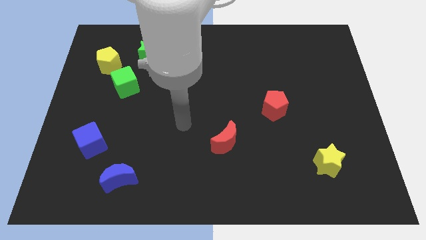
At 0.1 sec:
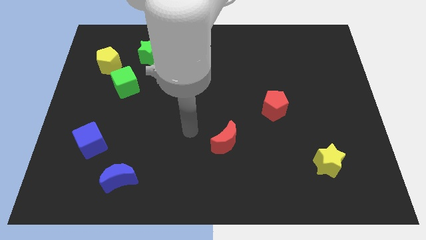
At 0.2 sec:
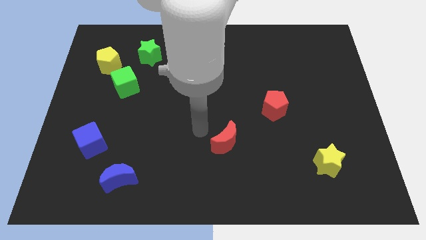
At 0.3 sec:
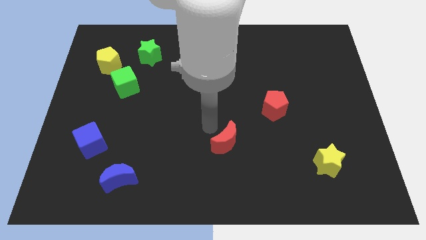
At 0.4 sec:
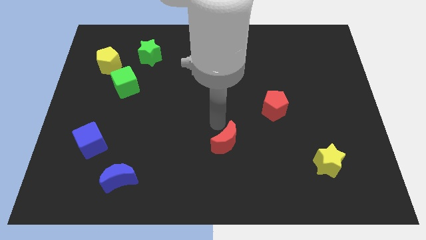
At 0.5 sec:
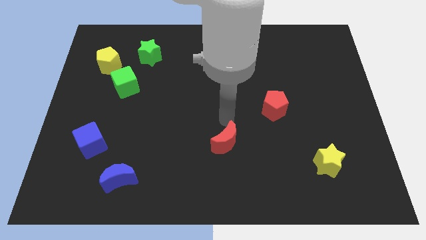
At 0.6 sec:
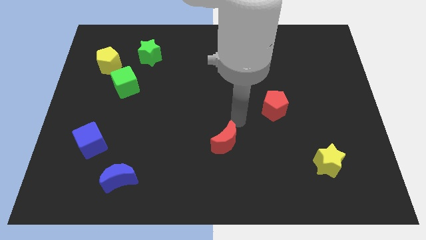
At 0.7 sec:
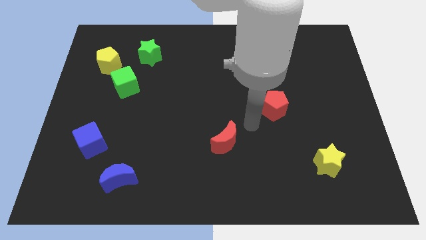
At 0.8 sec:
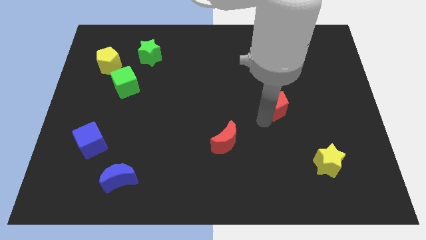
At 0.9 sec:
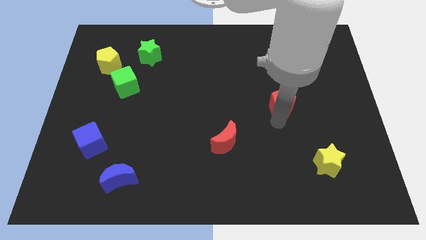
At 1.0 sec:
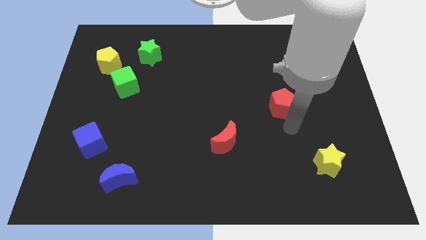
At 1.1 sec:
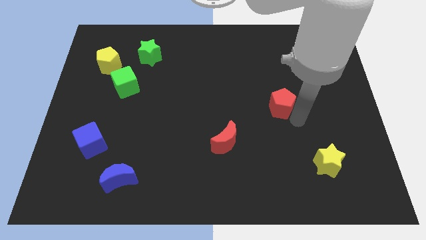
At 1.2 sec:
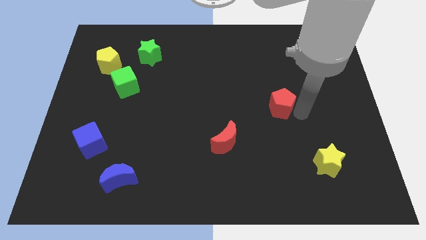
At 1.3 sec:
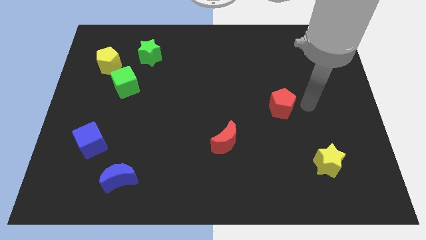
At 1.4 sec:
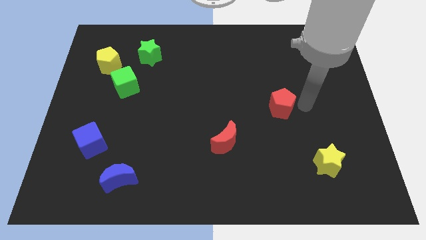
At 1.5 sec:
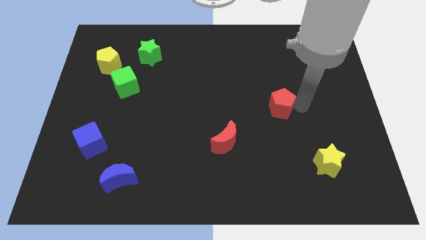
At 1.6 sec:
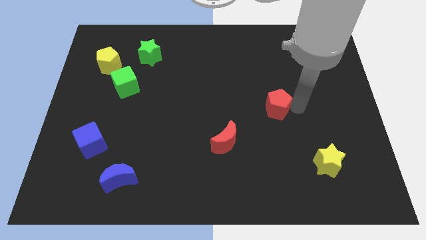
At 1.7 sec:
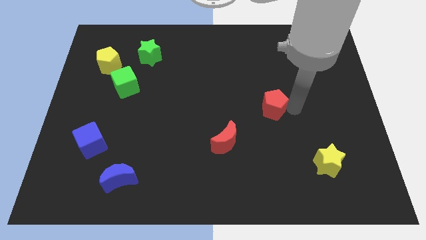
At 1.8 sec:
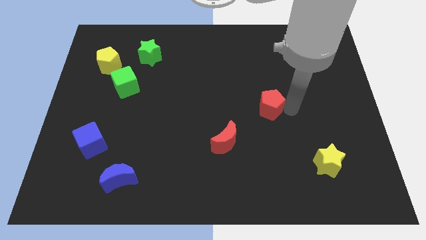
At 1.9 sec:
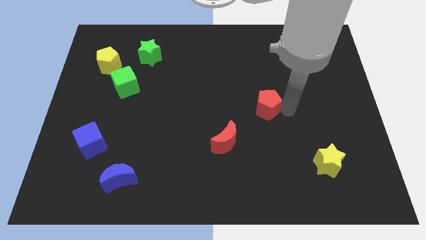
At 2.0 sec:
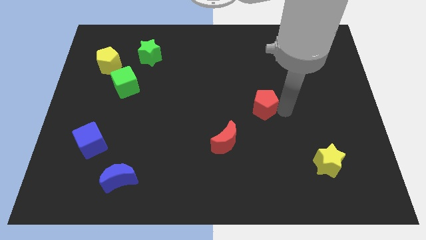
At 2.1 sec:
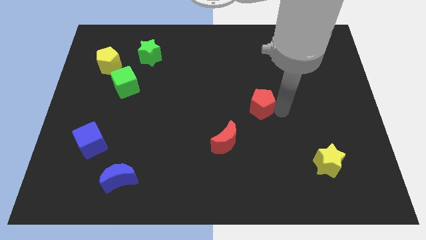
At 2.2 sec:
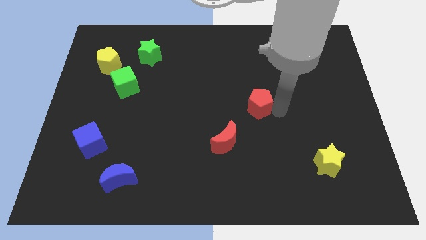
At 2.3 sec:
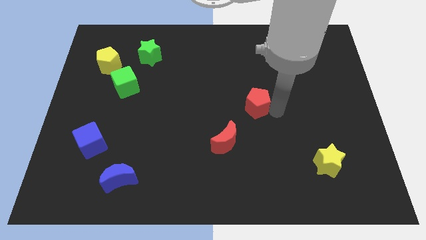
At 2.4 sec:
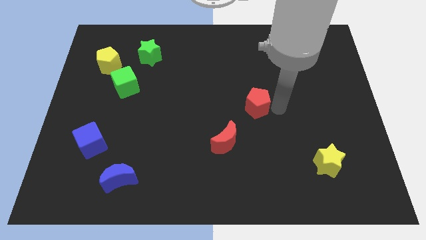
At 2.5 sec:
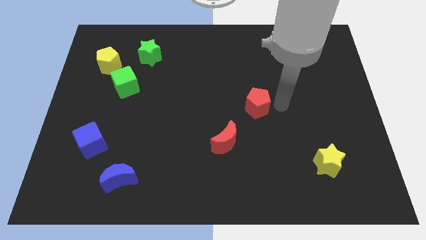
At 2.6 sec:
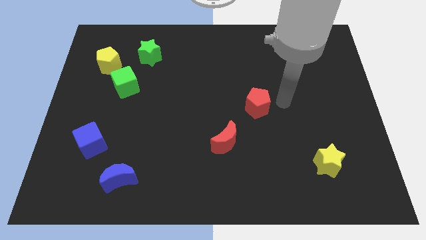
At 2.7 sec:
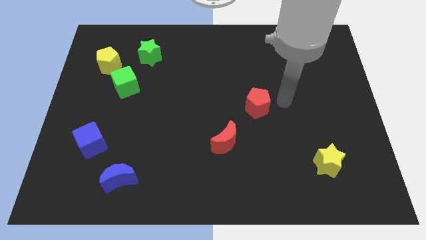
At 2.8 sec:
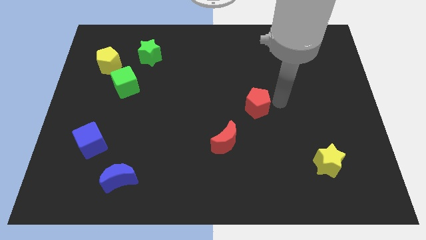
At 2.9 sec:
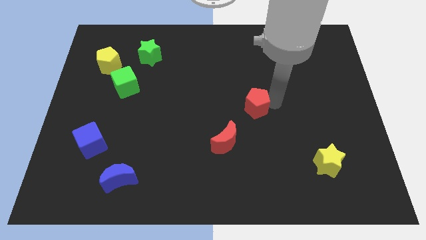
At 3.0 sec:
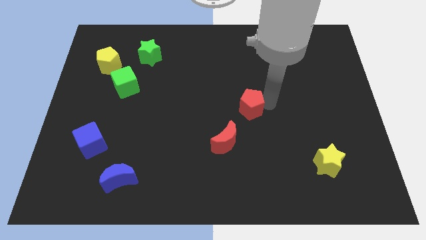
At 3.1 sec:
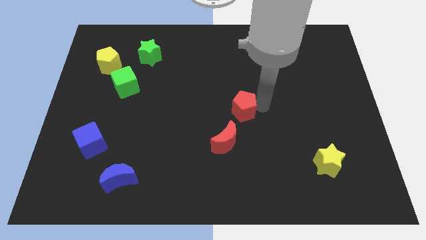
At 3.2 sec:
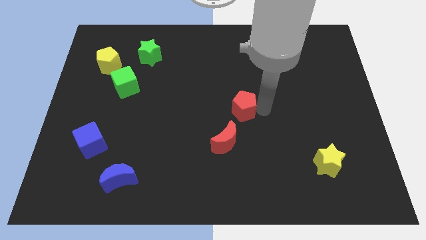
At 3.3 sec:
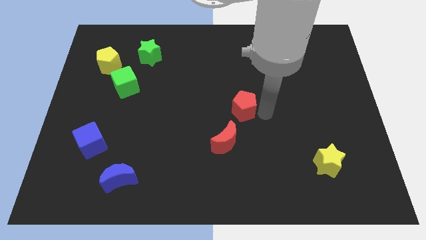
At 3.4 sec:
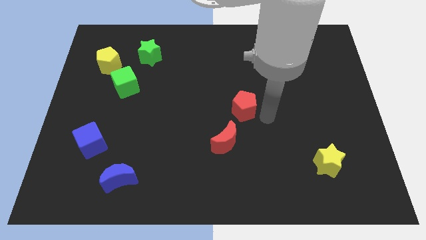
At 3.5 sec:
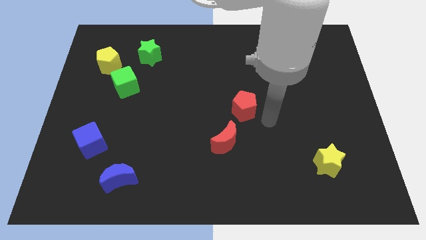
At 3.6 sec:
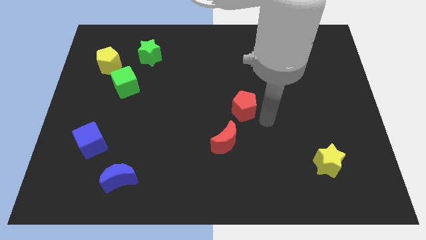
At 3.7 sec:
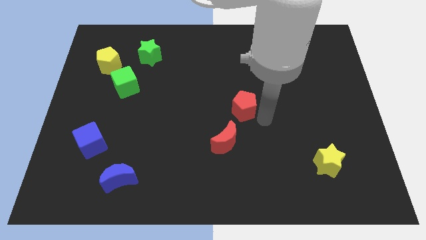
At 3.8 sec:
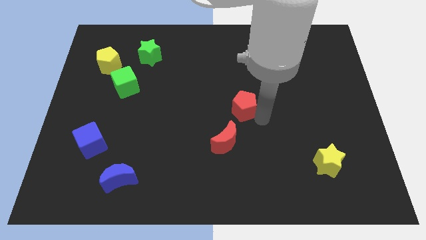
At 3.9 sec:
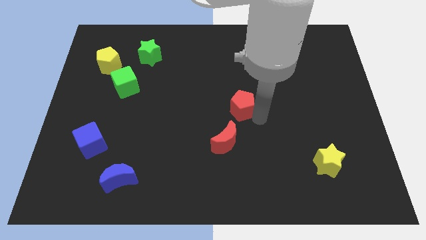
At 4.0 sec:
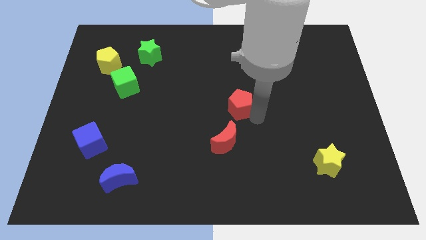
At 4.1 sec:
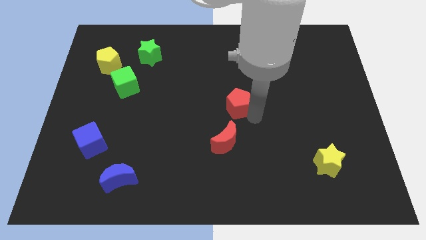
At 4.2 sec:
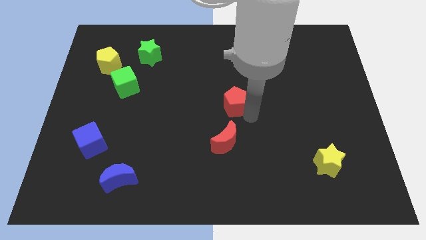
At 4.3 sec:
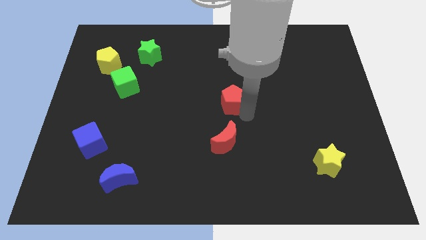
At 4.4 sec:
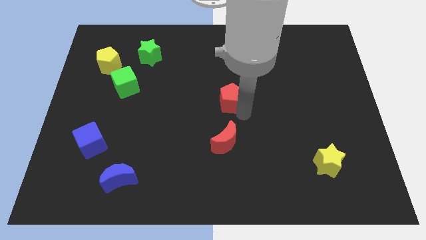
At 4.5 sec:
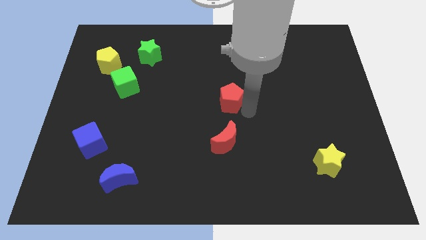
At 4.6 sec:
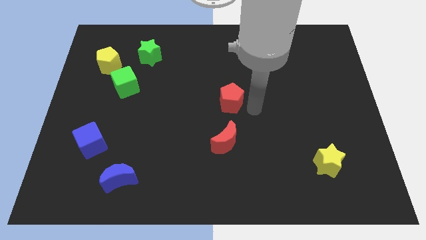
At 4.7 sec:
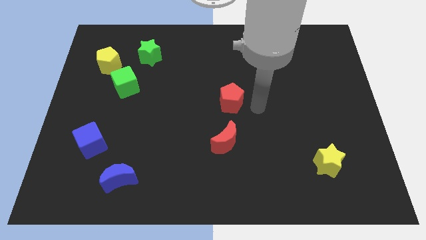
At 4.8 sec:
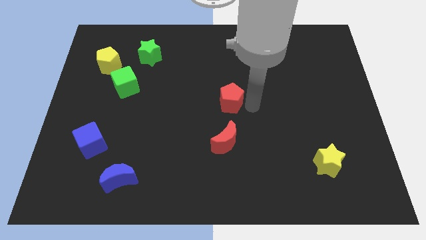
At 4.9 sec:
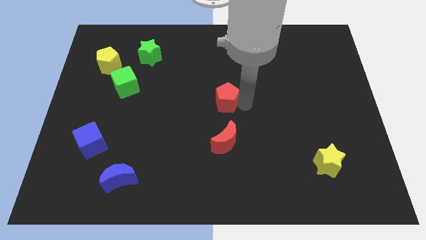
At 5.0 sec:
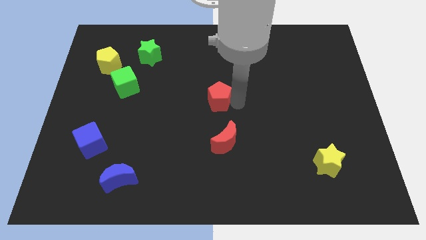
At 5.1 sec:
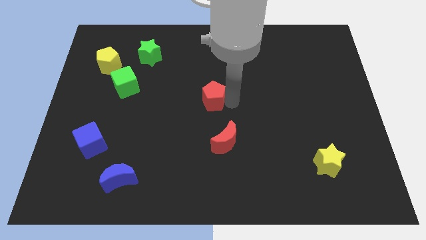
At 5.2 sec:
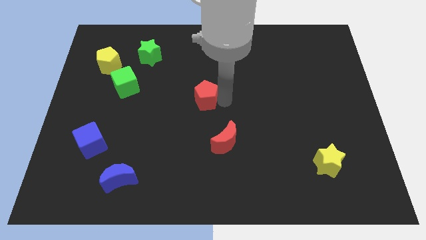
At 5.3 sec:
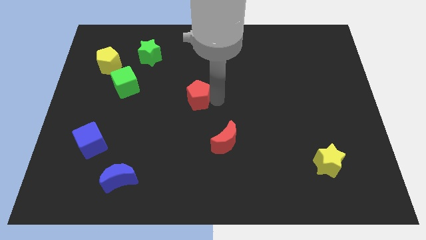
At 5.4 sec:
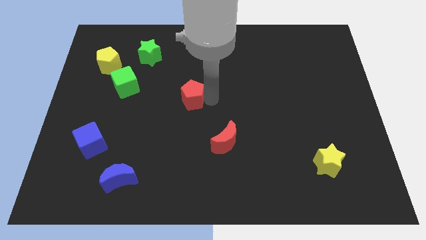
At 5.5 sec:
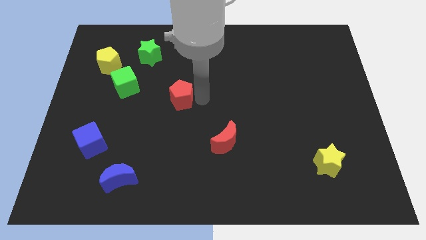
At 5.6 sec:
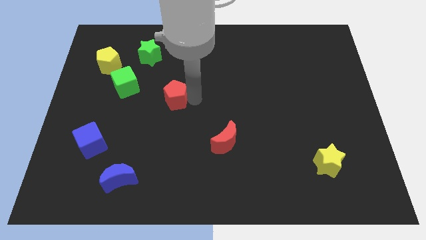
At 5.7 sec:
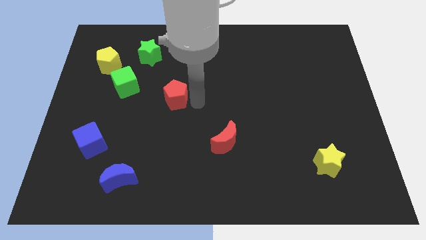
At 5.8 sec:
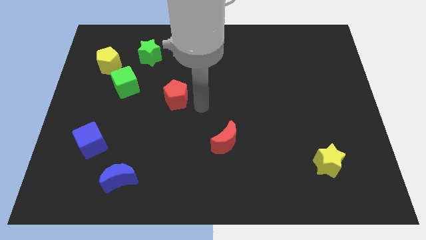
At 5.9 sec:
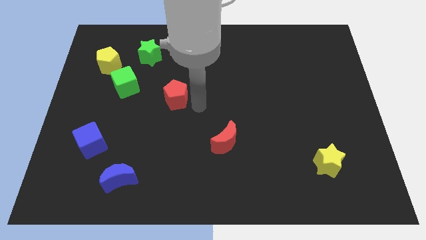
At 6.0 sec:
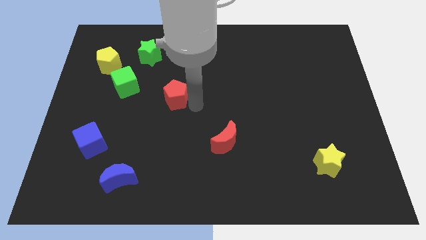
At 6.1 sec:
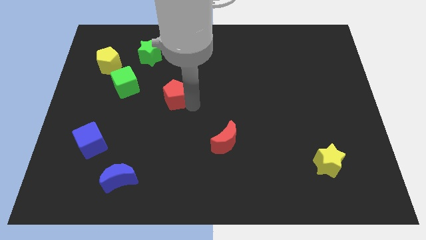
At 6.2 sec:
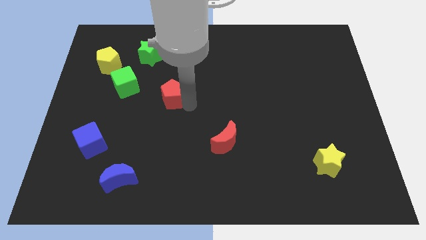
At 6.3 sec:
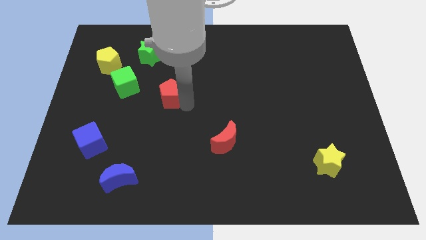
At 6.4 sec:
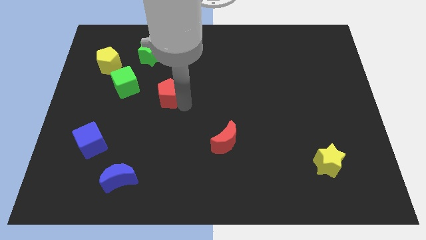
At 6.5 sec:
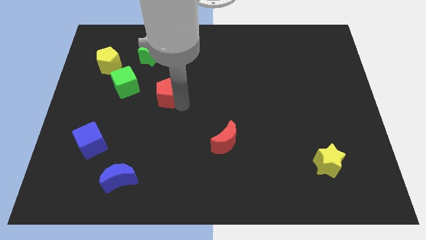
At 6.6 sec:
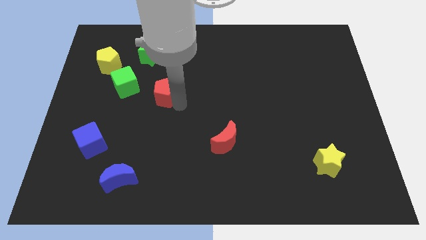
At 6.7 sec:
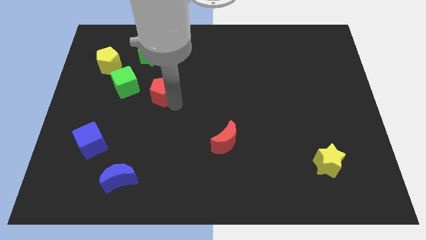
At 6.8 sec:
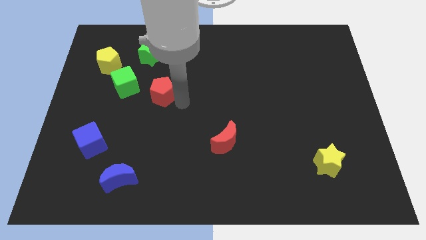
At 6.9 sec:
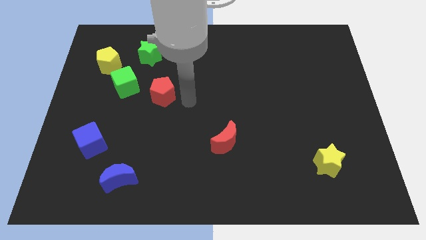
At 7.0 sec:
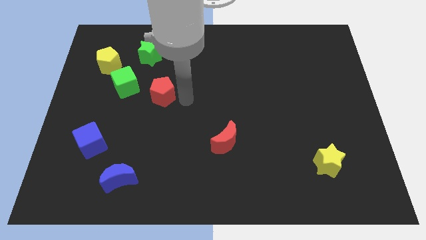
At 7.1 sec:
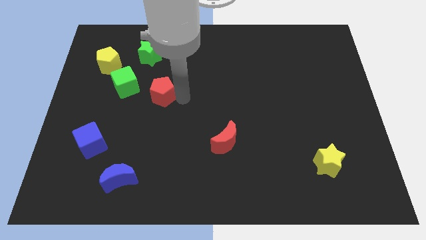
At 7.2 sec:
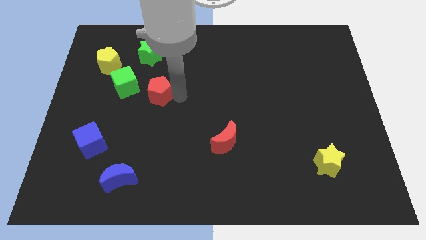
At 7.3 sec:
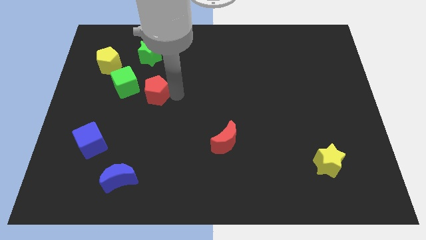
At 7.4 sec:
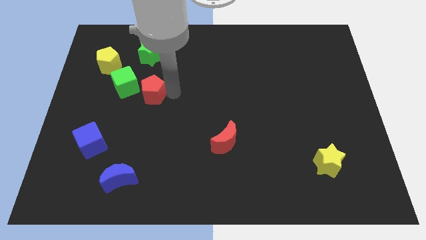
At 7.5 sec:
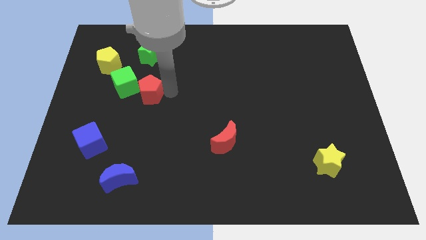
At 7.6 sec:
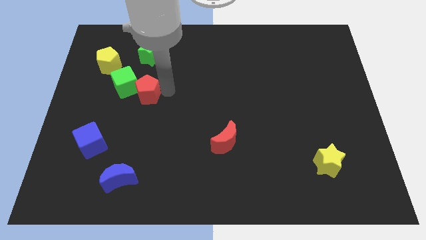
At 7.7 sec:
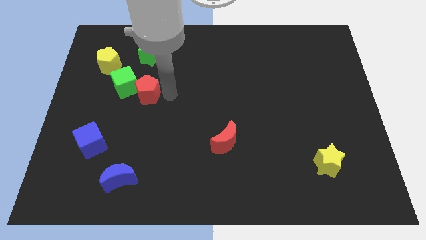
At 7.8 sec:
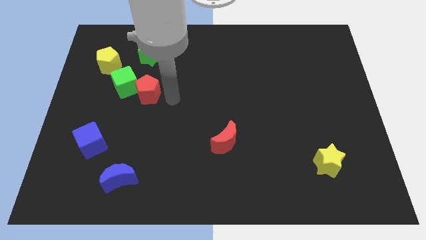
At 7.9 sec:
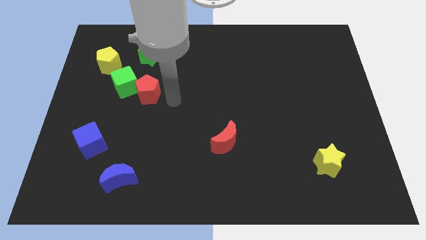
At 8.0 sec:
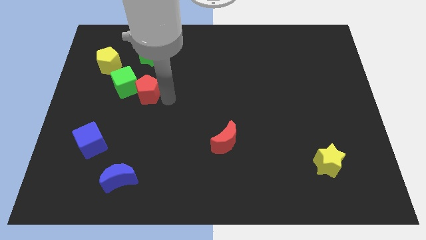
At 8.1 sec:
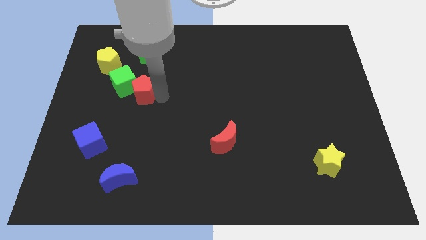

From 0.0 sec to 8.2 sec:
push the red pentagon to the green cube
